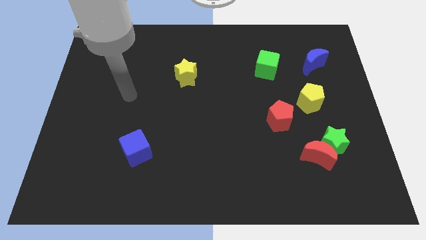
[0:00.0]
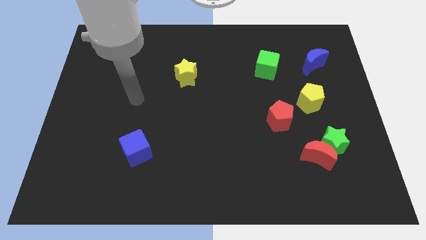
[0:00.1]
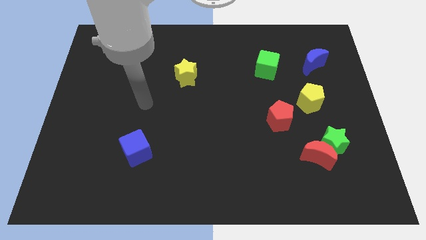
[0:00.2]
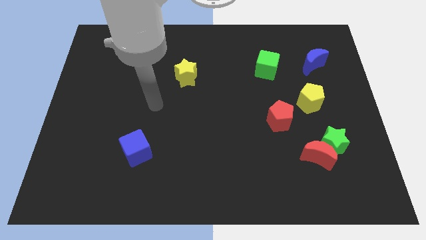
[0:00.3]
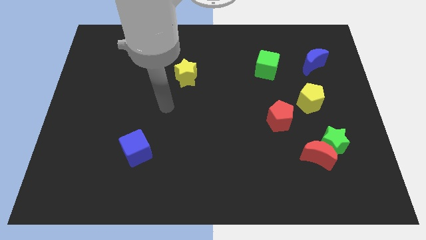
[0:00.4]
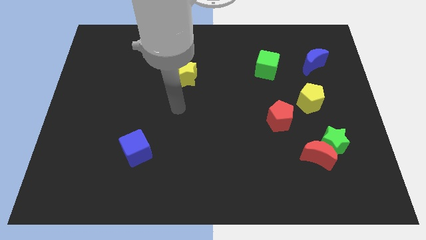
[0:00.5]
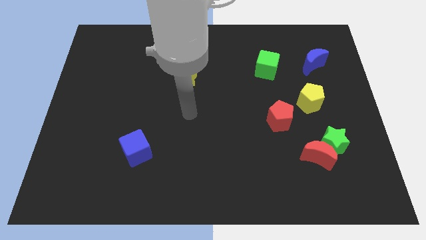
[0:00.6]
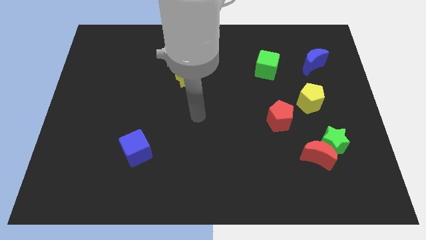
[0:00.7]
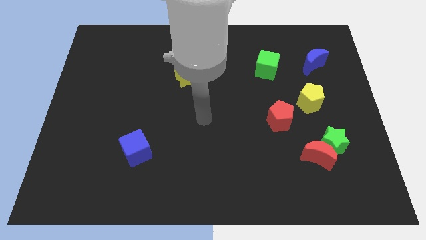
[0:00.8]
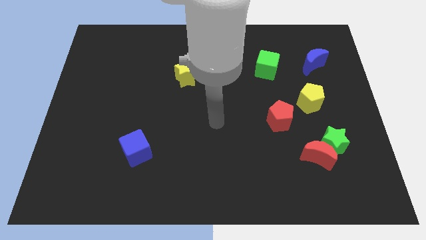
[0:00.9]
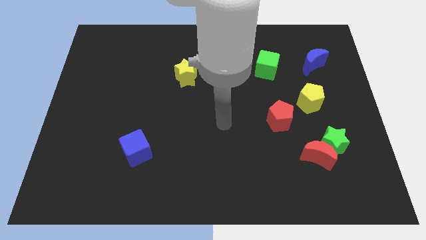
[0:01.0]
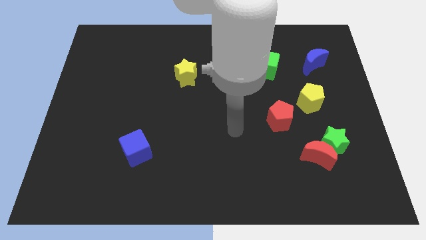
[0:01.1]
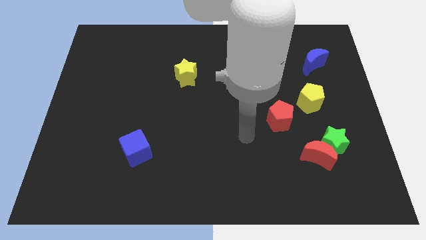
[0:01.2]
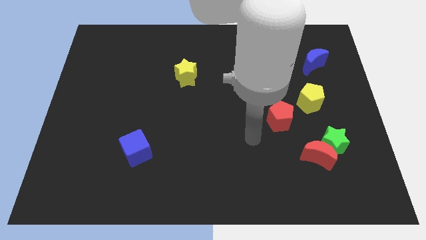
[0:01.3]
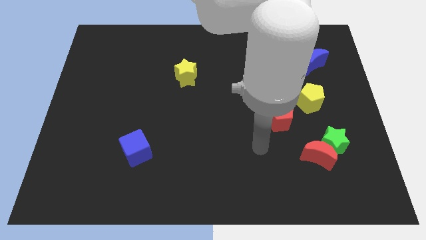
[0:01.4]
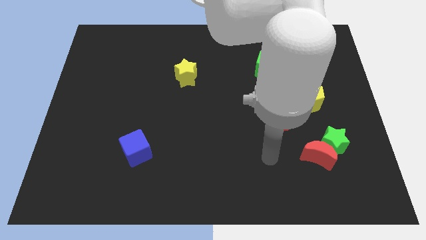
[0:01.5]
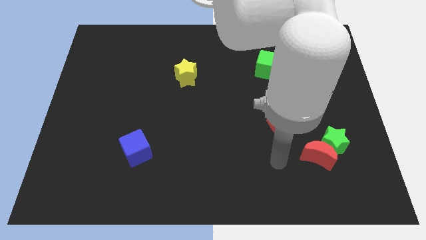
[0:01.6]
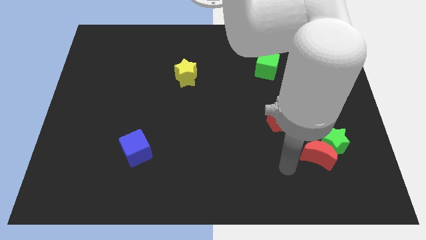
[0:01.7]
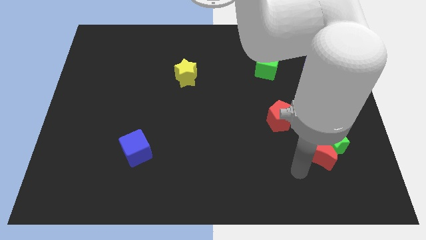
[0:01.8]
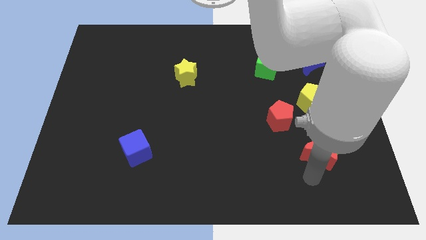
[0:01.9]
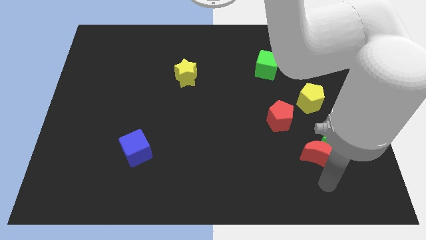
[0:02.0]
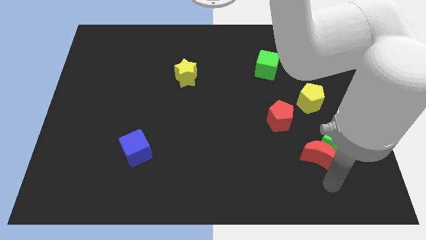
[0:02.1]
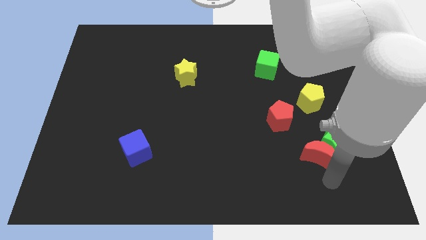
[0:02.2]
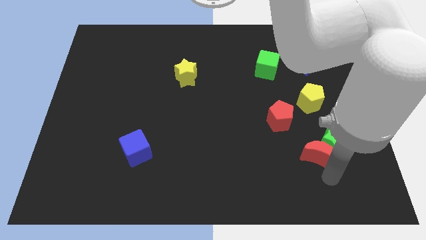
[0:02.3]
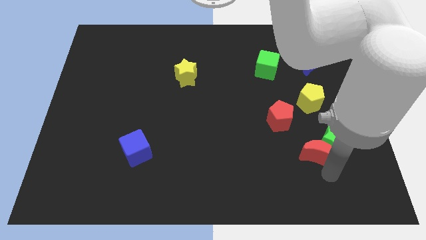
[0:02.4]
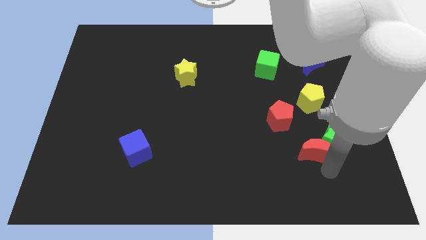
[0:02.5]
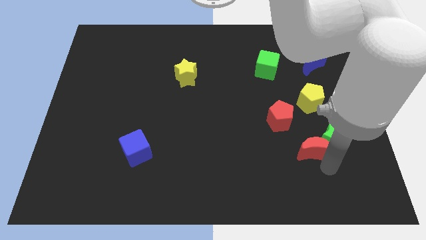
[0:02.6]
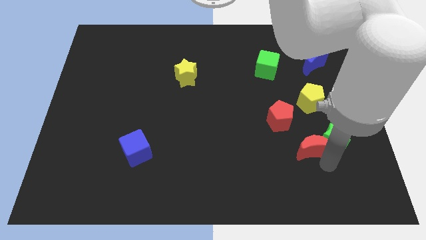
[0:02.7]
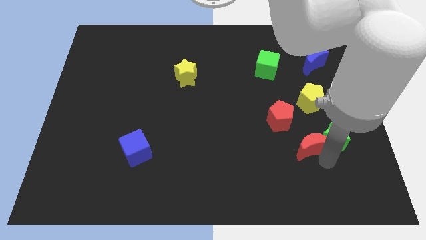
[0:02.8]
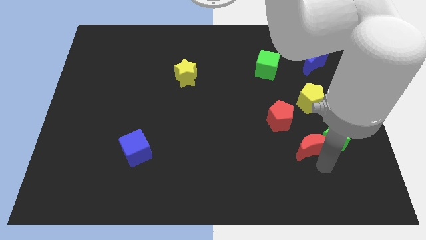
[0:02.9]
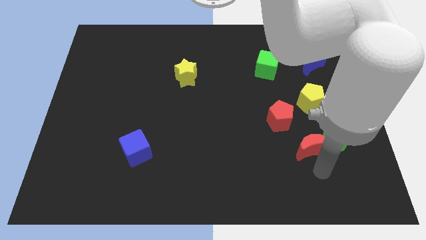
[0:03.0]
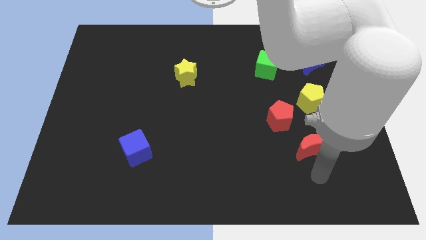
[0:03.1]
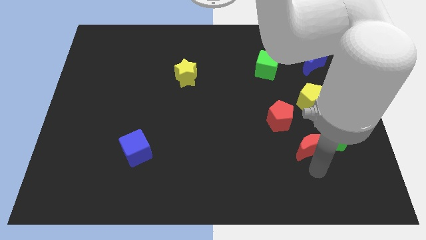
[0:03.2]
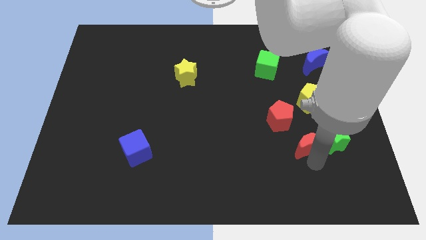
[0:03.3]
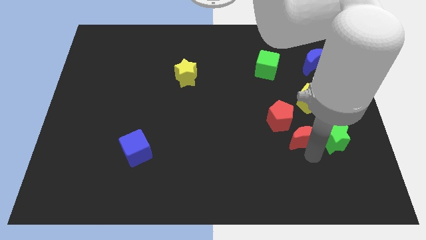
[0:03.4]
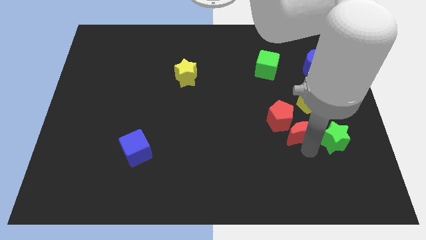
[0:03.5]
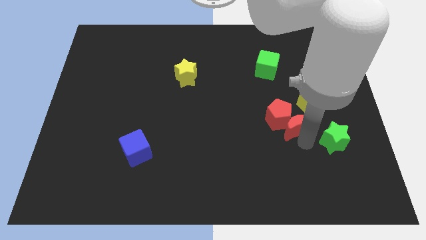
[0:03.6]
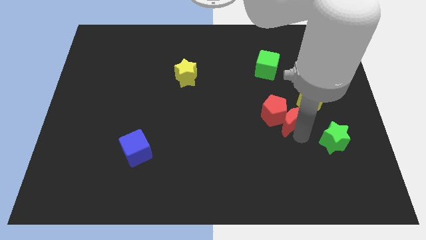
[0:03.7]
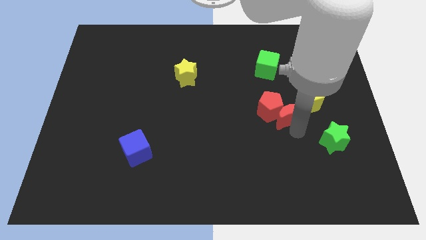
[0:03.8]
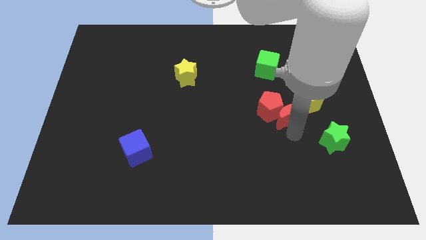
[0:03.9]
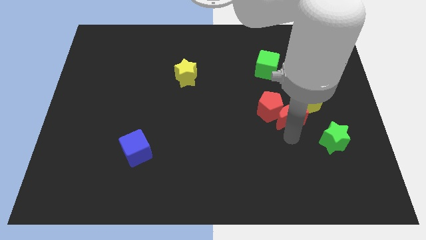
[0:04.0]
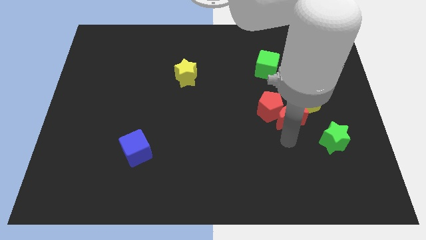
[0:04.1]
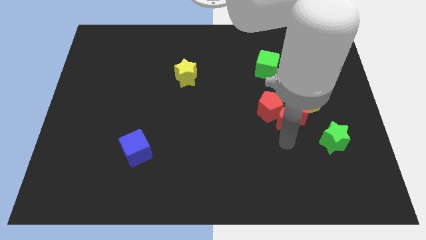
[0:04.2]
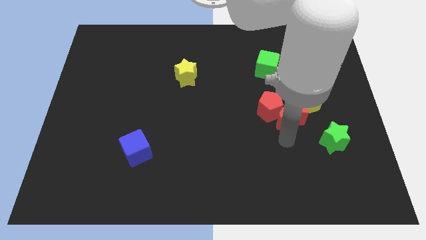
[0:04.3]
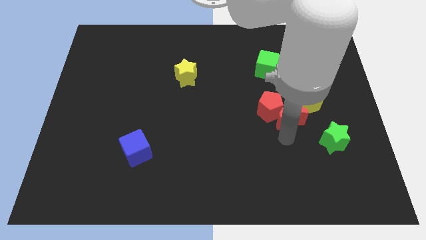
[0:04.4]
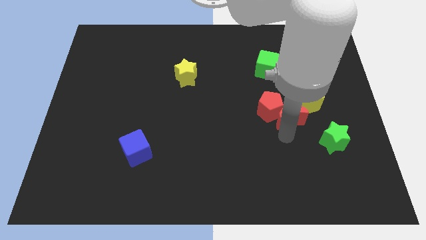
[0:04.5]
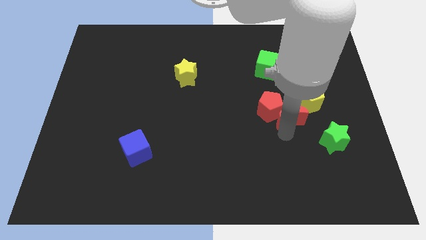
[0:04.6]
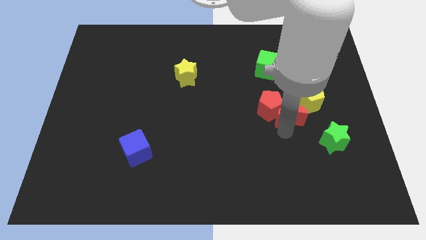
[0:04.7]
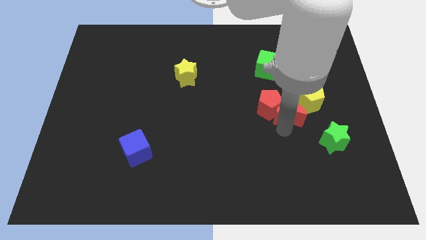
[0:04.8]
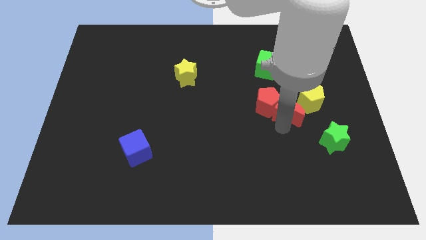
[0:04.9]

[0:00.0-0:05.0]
slide the red moon to the bottom of the green cube

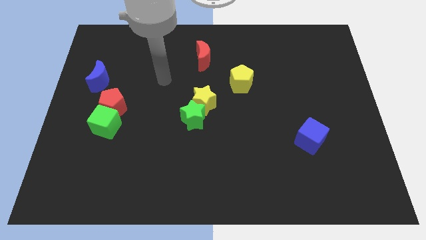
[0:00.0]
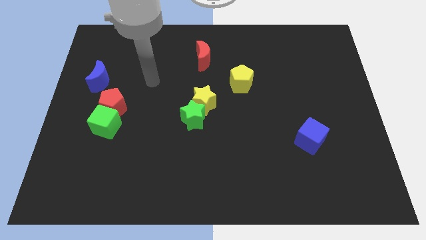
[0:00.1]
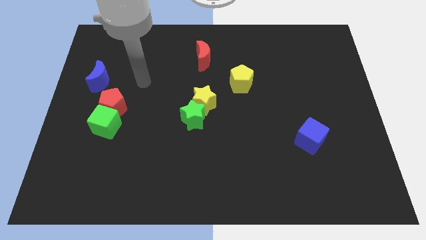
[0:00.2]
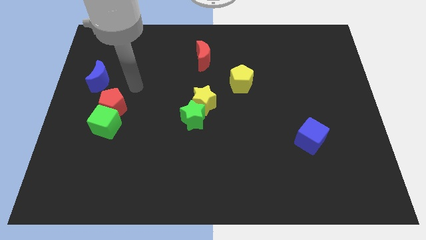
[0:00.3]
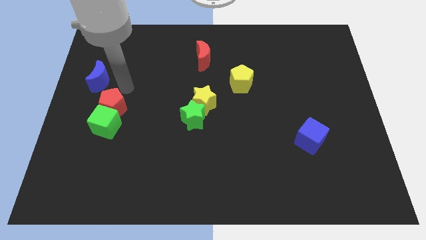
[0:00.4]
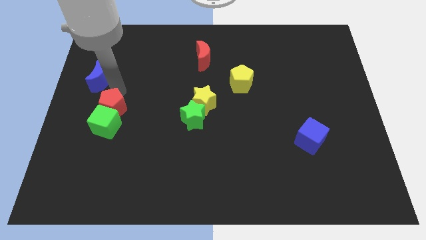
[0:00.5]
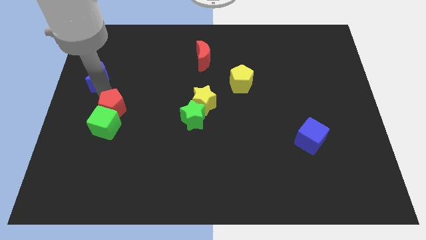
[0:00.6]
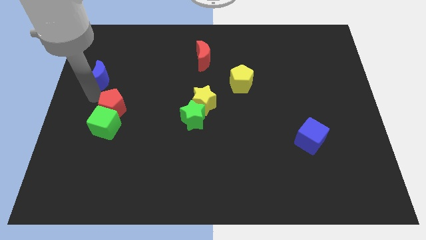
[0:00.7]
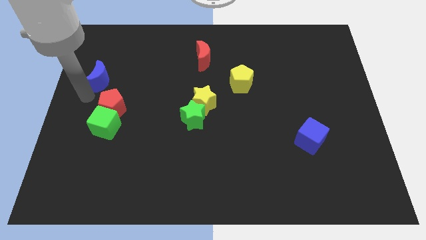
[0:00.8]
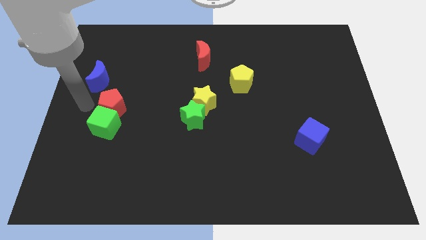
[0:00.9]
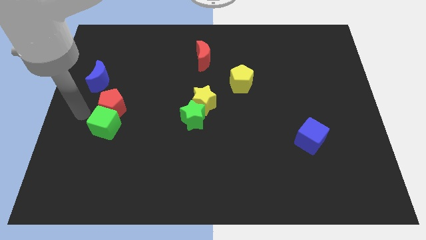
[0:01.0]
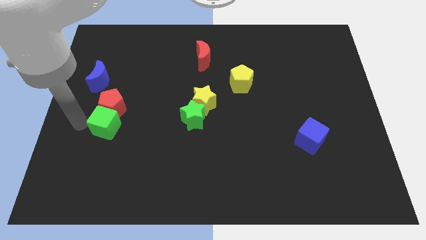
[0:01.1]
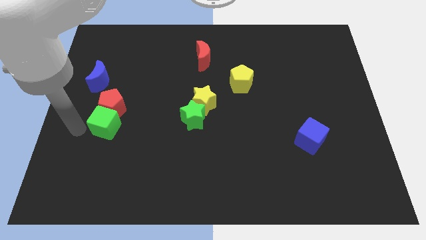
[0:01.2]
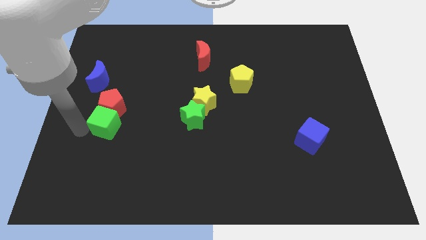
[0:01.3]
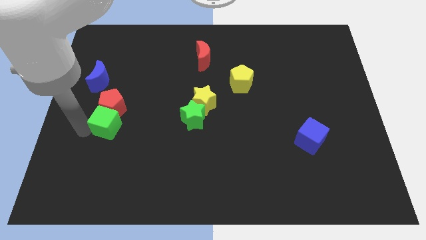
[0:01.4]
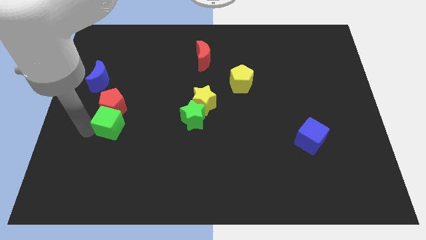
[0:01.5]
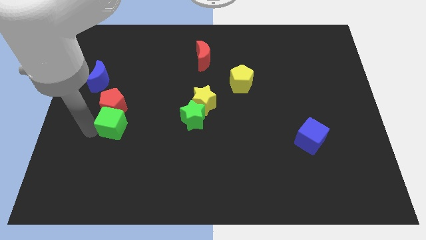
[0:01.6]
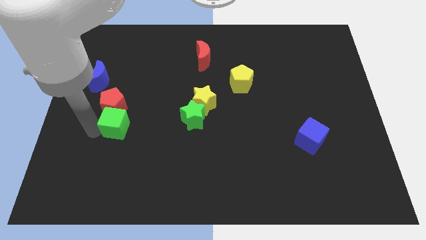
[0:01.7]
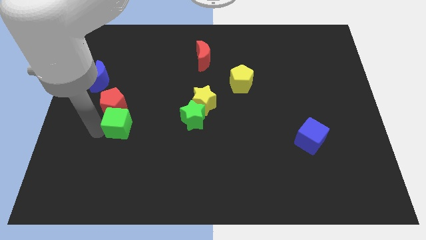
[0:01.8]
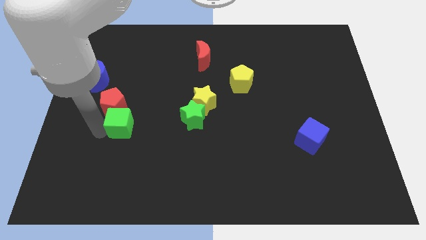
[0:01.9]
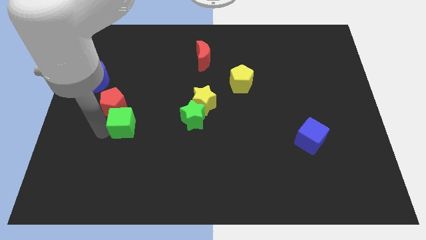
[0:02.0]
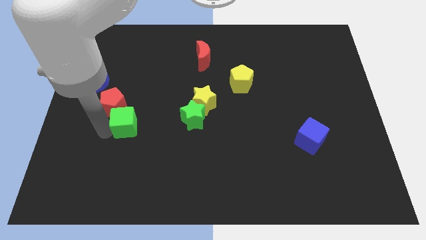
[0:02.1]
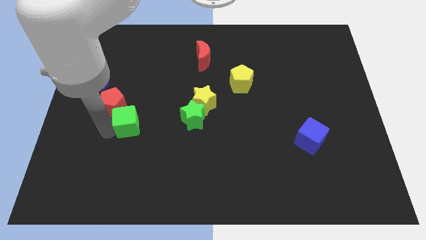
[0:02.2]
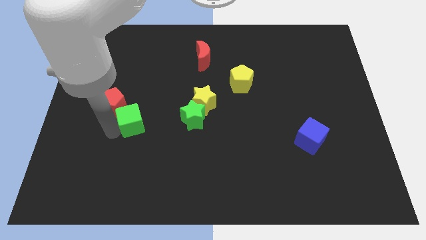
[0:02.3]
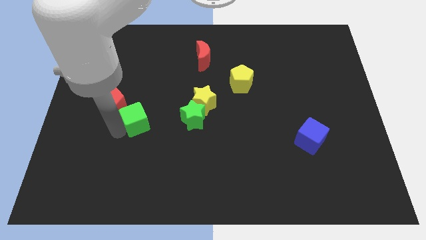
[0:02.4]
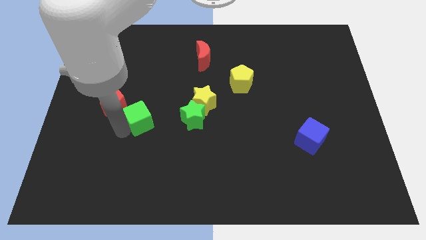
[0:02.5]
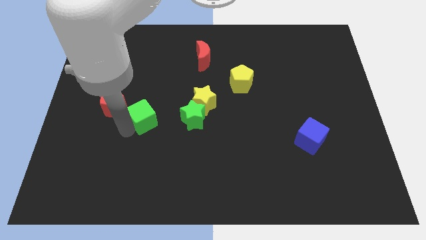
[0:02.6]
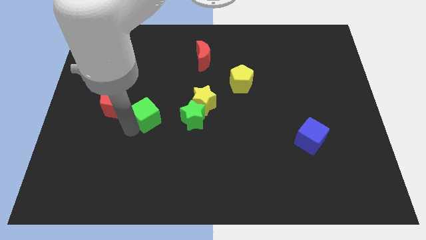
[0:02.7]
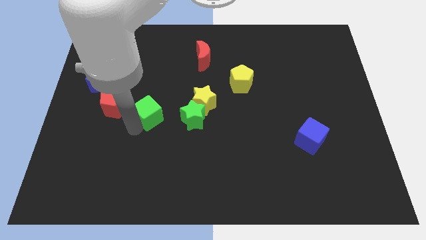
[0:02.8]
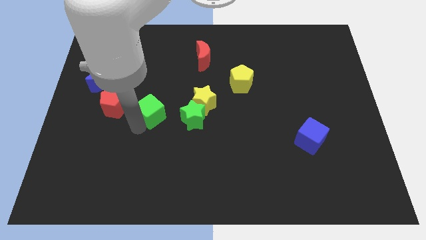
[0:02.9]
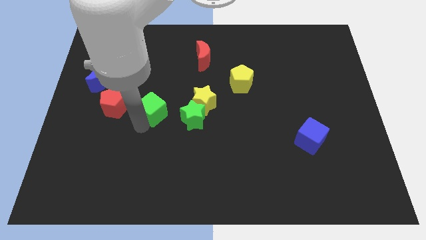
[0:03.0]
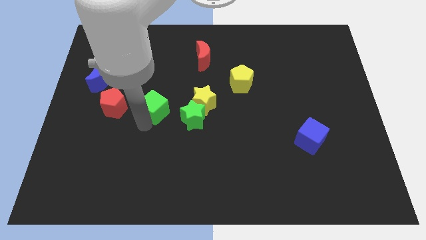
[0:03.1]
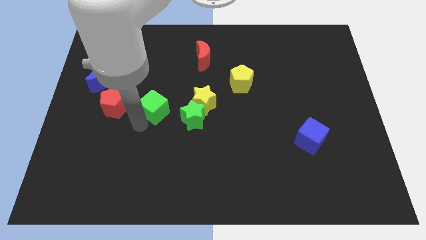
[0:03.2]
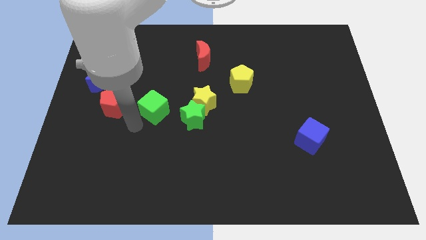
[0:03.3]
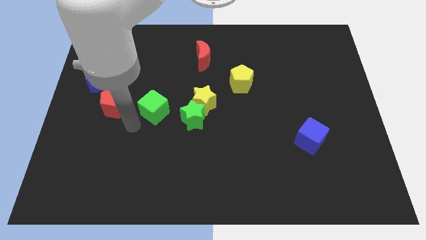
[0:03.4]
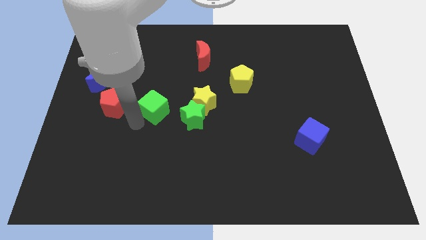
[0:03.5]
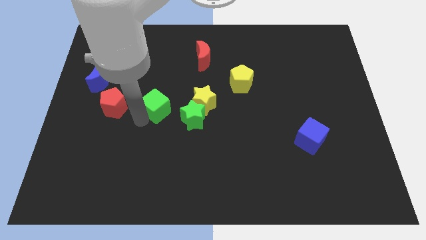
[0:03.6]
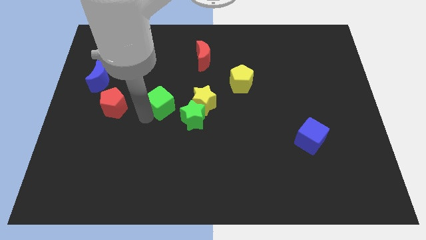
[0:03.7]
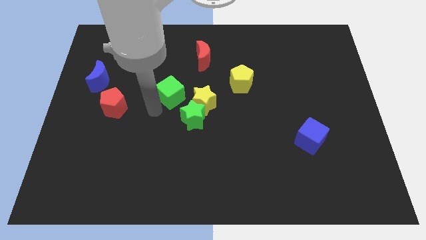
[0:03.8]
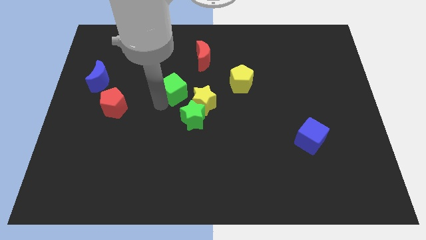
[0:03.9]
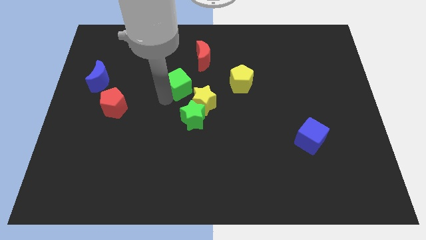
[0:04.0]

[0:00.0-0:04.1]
push the green cube just left of the yellow pentagon
